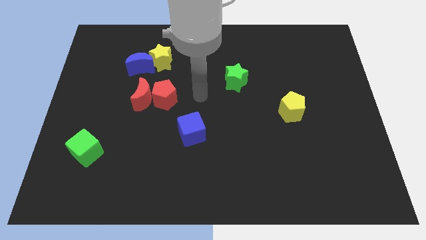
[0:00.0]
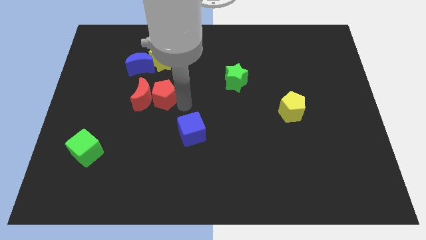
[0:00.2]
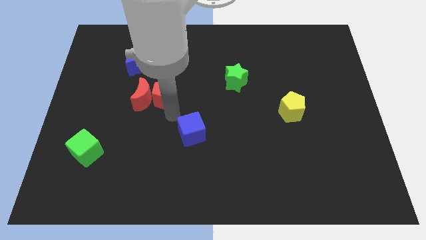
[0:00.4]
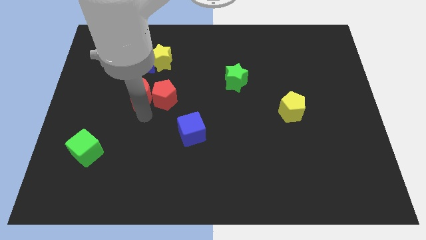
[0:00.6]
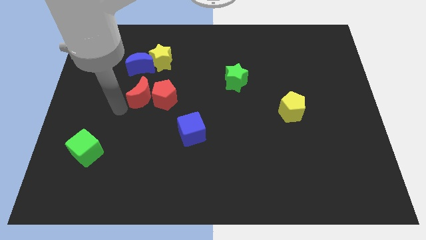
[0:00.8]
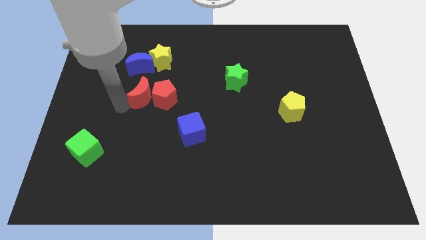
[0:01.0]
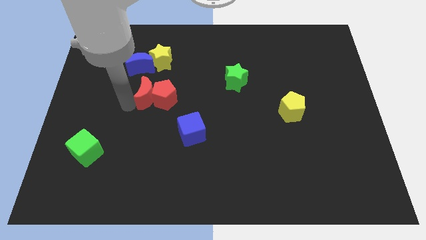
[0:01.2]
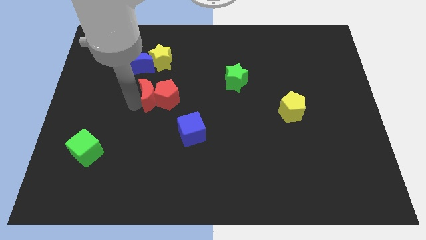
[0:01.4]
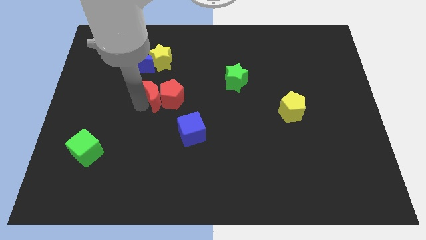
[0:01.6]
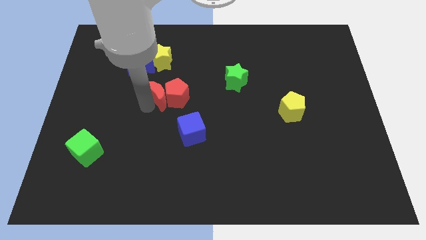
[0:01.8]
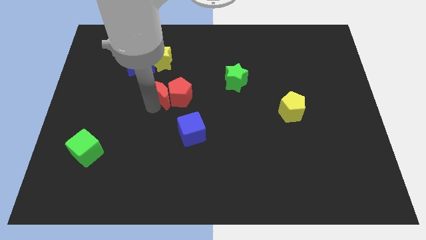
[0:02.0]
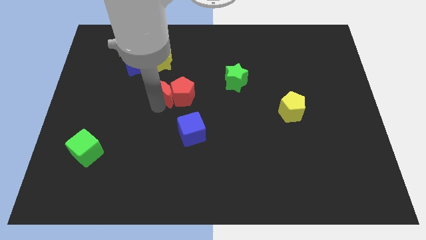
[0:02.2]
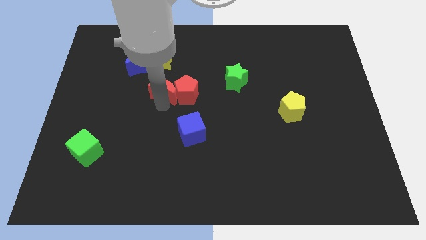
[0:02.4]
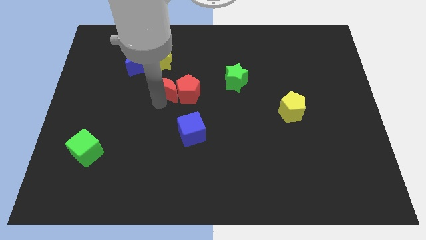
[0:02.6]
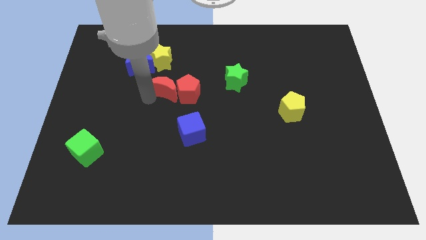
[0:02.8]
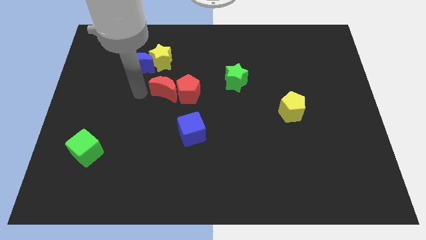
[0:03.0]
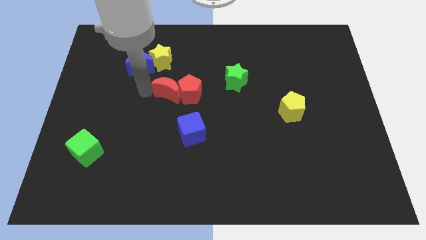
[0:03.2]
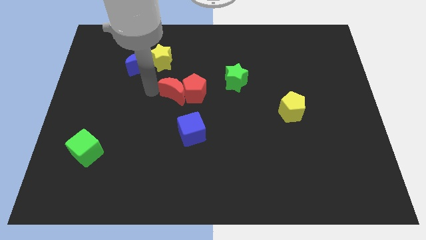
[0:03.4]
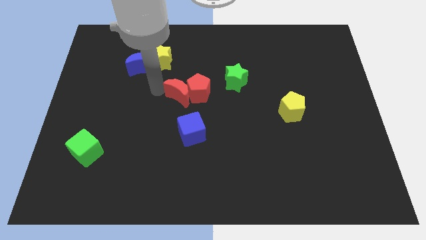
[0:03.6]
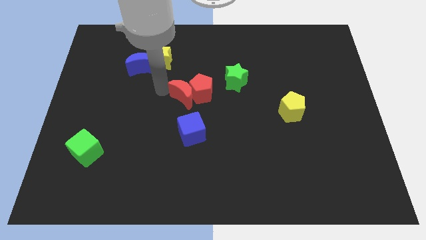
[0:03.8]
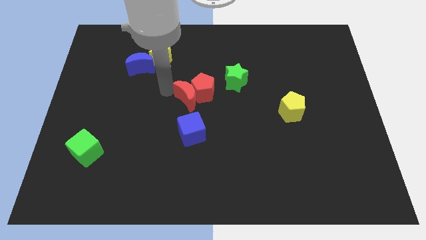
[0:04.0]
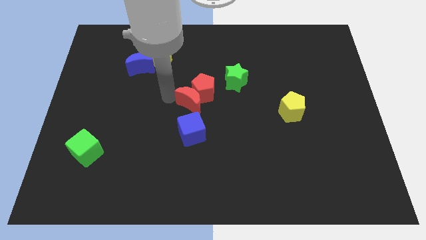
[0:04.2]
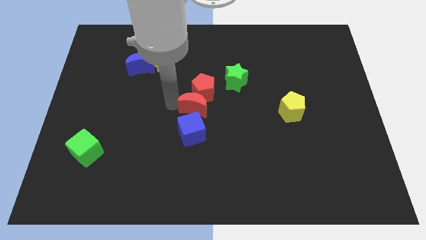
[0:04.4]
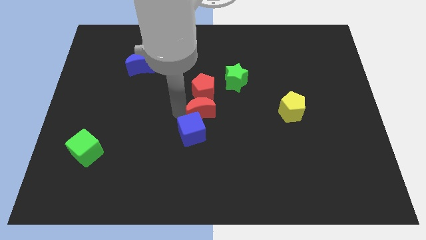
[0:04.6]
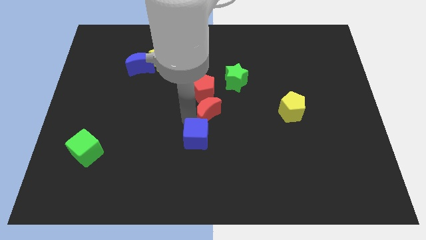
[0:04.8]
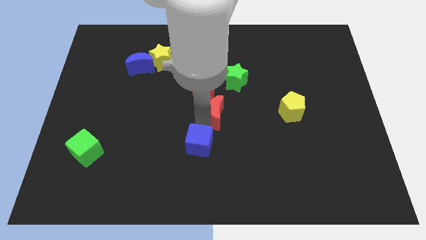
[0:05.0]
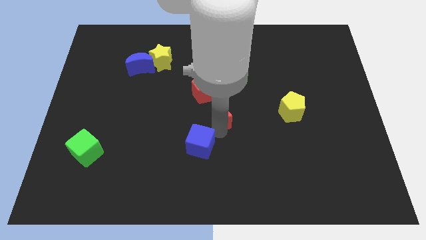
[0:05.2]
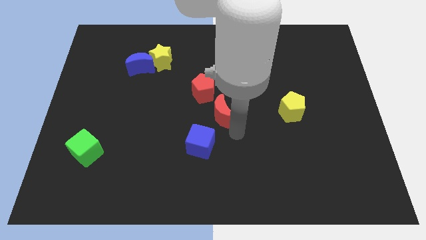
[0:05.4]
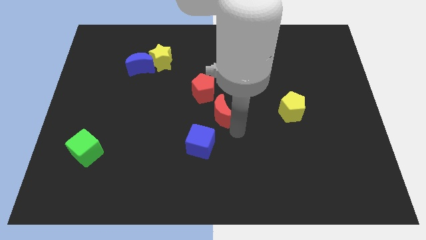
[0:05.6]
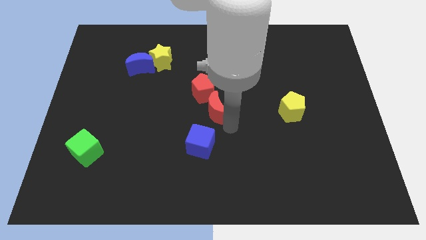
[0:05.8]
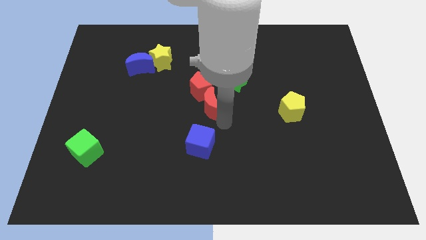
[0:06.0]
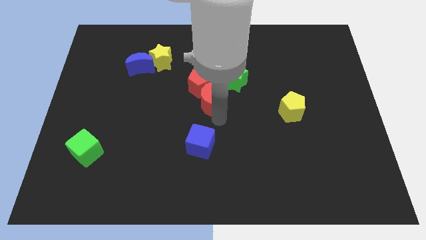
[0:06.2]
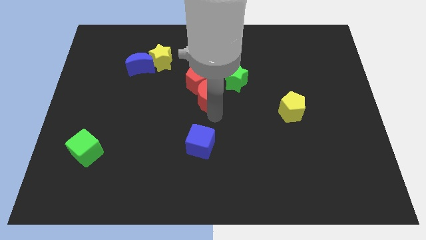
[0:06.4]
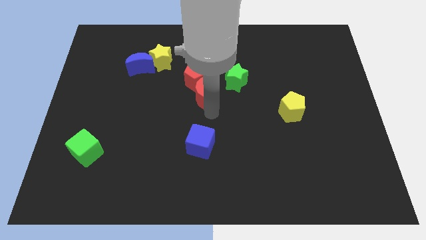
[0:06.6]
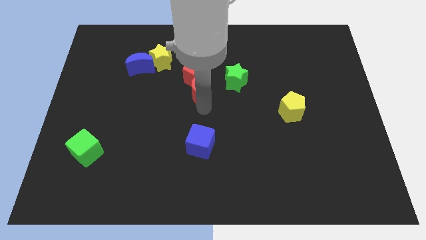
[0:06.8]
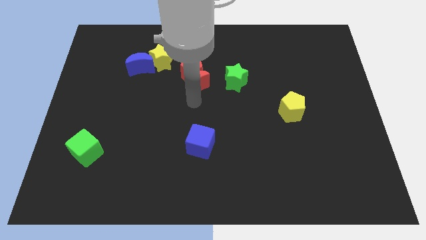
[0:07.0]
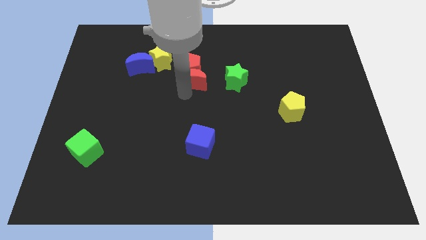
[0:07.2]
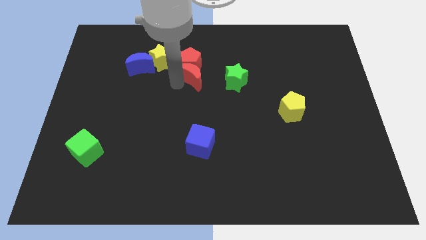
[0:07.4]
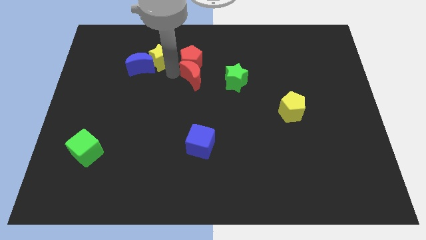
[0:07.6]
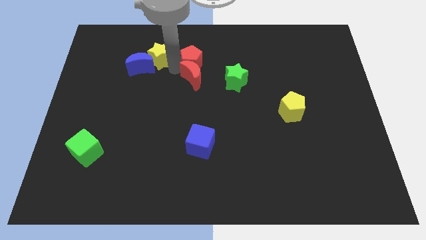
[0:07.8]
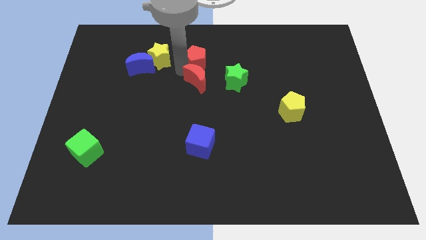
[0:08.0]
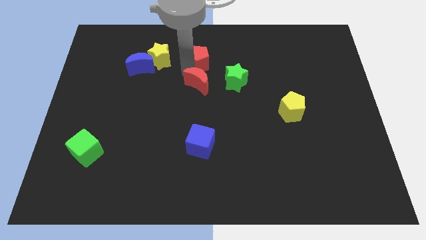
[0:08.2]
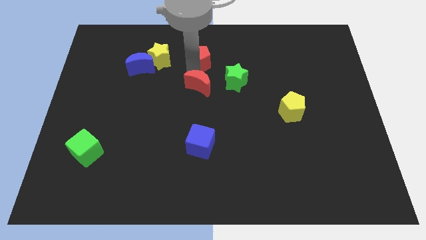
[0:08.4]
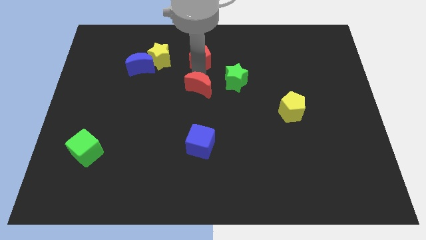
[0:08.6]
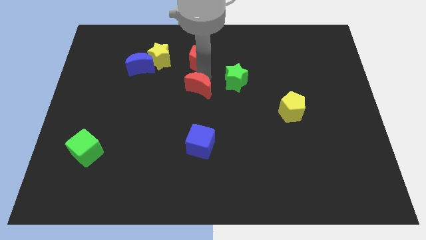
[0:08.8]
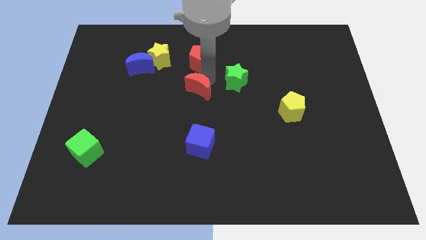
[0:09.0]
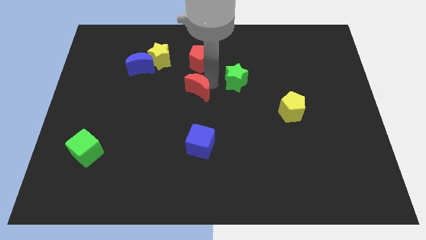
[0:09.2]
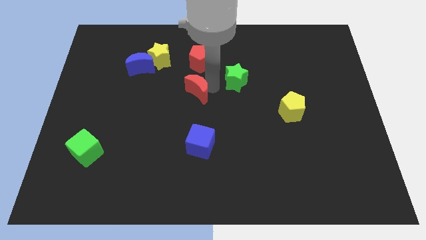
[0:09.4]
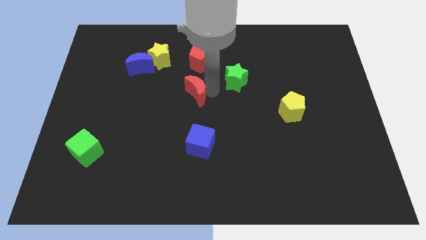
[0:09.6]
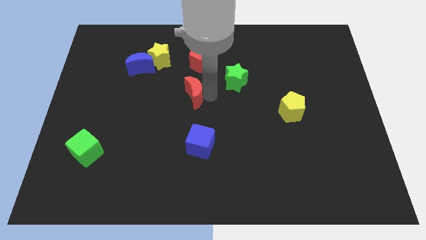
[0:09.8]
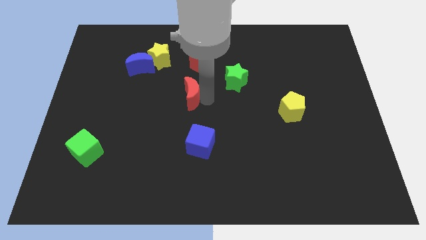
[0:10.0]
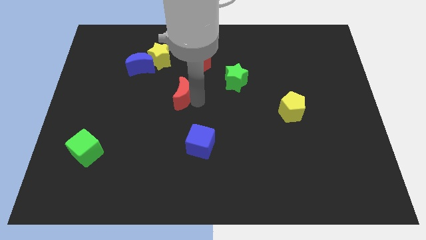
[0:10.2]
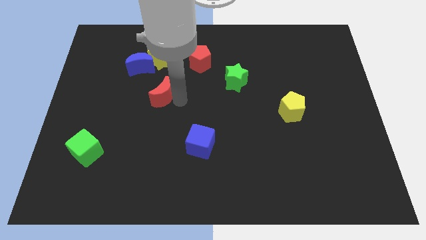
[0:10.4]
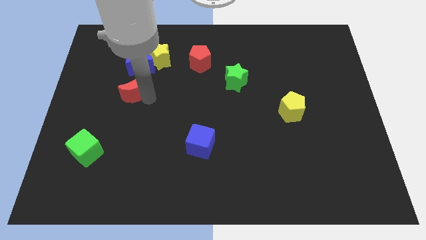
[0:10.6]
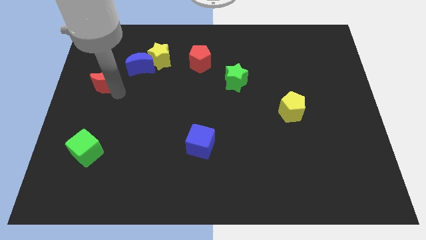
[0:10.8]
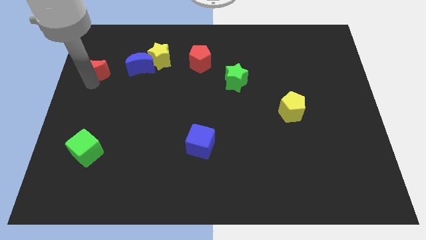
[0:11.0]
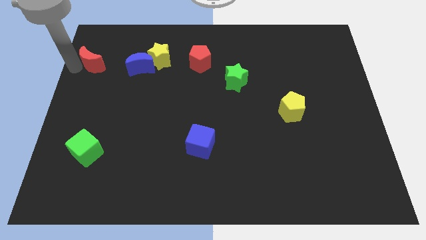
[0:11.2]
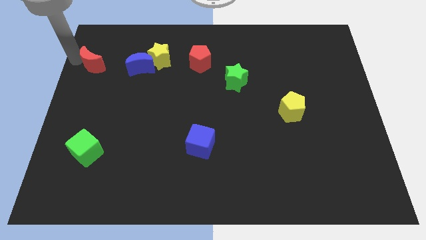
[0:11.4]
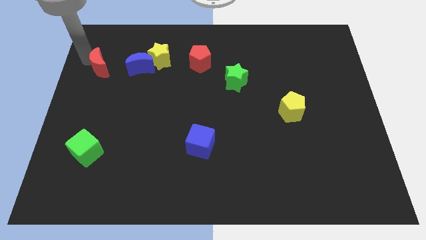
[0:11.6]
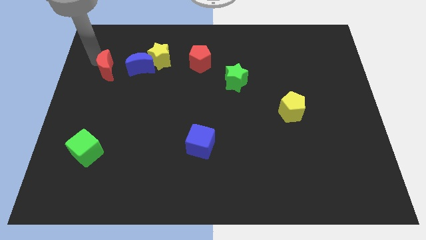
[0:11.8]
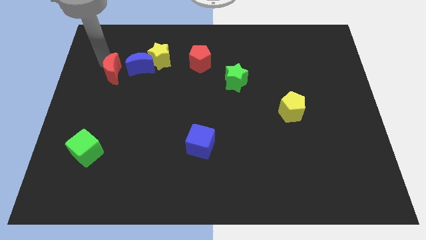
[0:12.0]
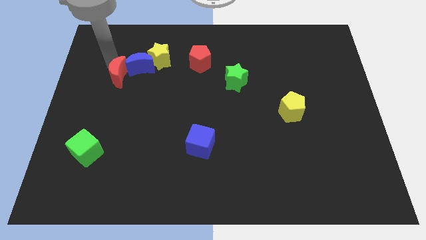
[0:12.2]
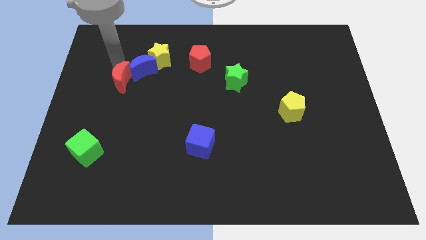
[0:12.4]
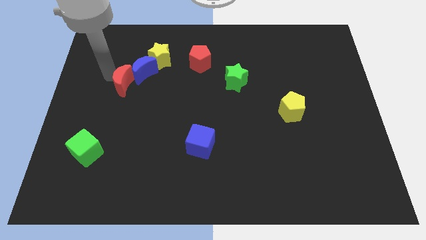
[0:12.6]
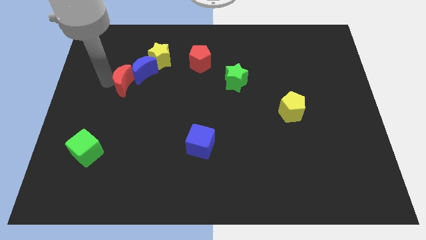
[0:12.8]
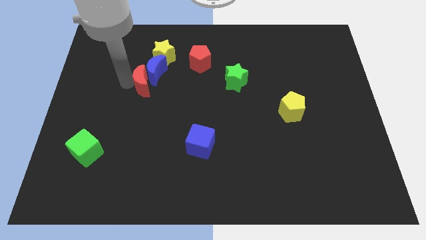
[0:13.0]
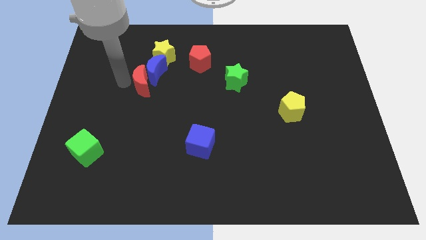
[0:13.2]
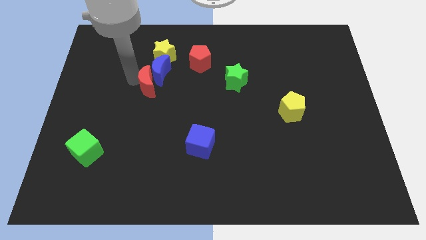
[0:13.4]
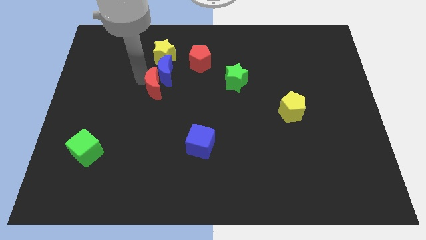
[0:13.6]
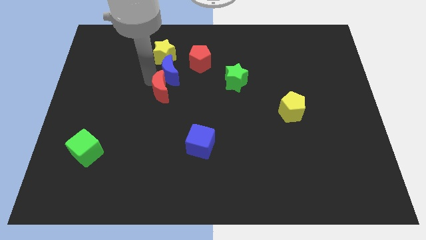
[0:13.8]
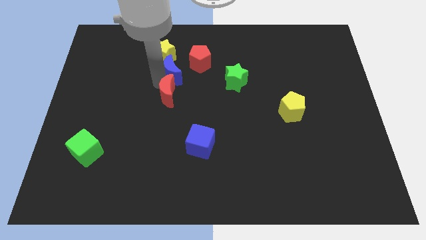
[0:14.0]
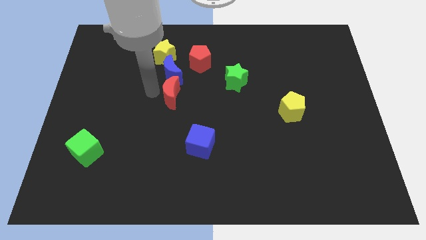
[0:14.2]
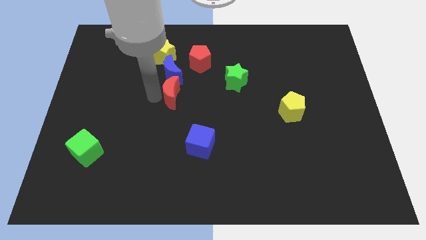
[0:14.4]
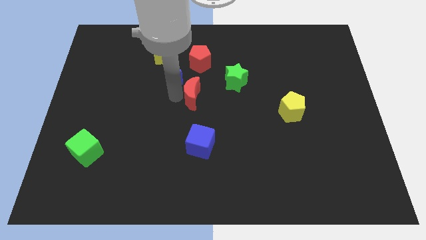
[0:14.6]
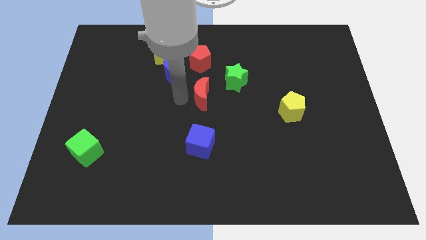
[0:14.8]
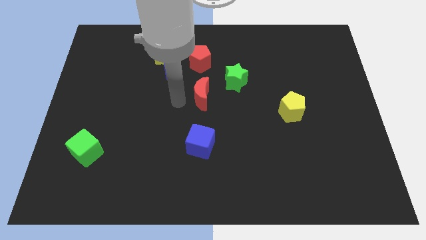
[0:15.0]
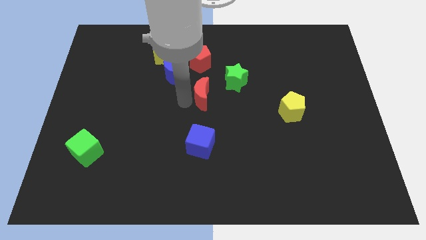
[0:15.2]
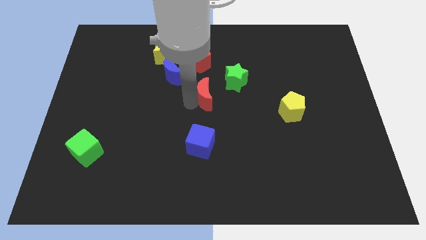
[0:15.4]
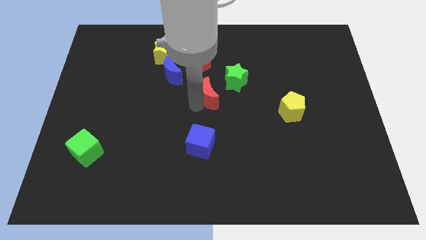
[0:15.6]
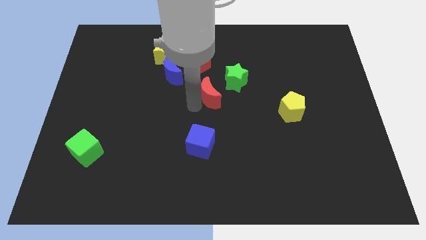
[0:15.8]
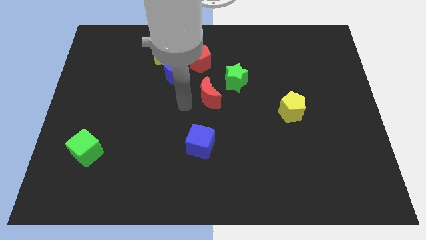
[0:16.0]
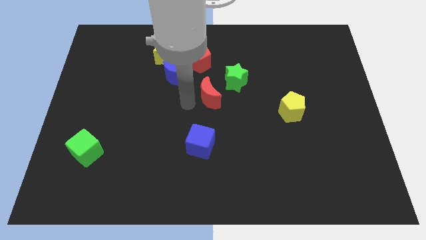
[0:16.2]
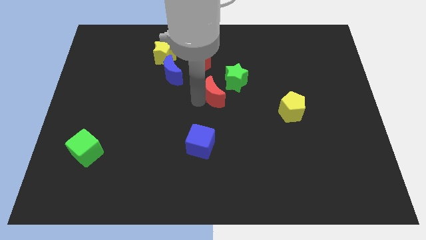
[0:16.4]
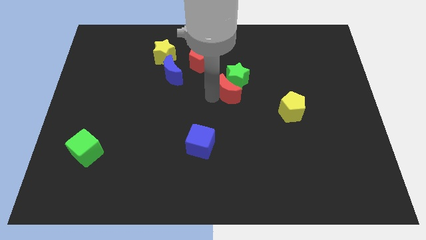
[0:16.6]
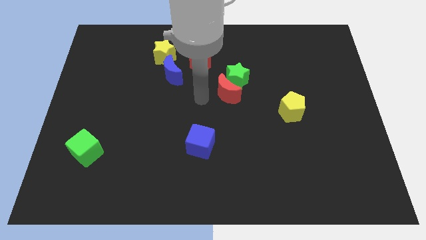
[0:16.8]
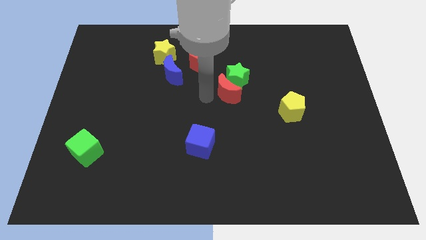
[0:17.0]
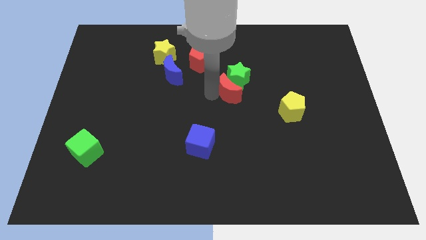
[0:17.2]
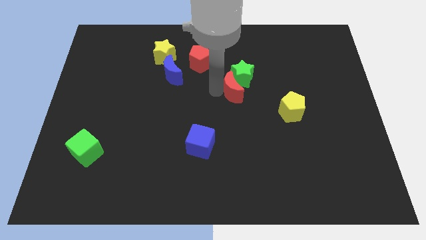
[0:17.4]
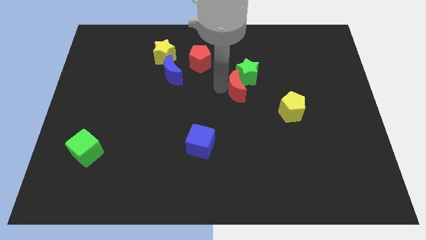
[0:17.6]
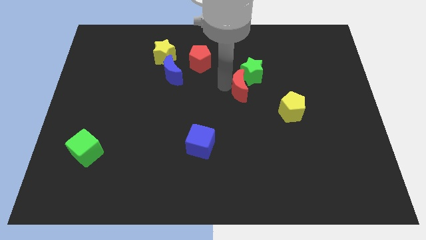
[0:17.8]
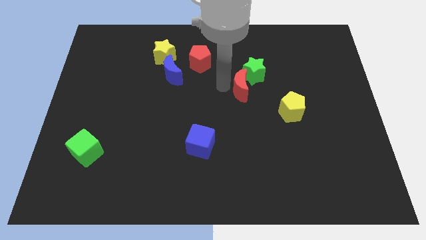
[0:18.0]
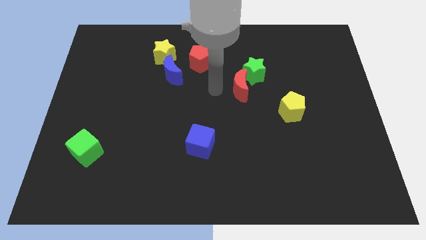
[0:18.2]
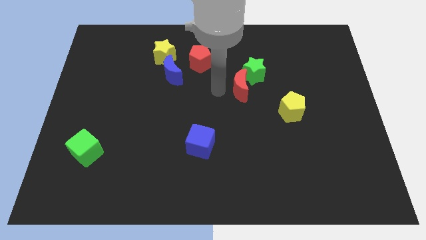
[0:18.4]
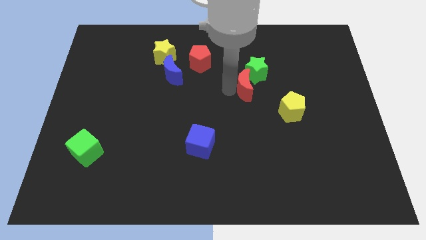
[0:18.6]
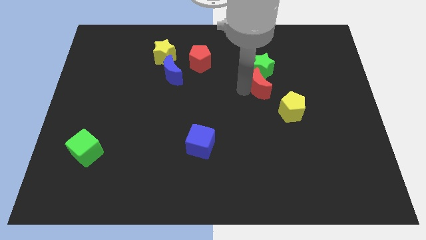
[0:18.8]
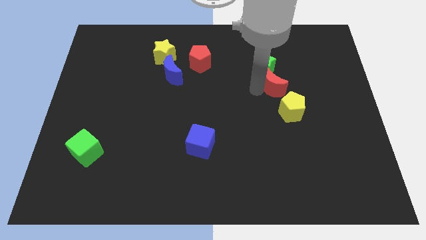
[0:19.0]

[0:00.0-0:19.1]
slide the red moon to the top side of the yellow pentagon
